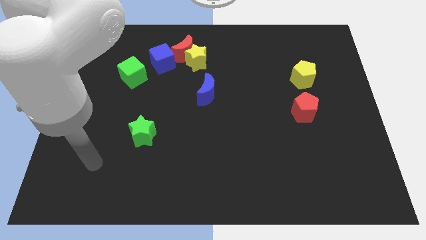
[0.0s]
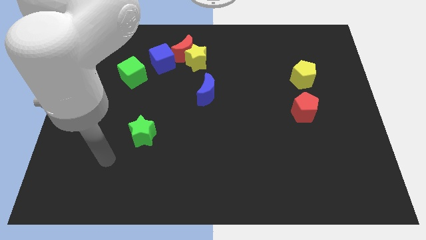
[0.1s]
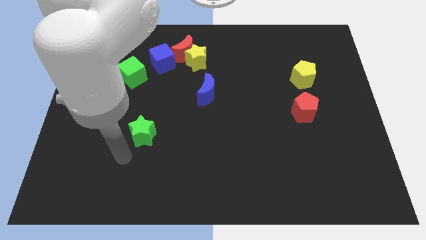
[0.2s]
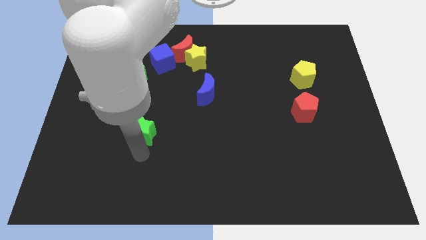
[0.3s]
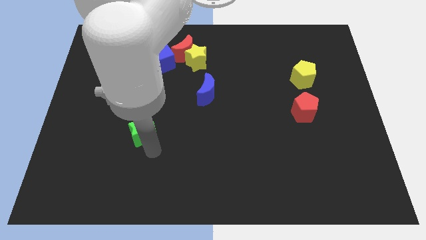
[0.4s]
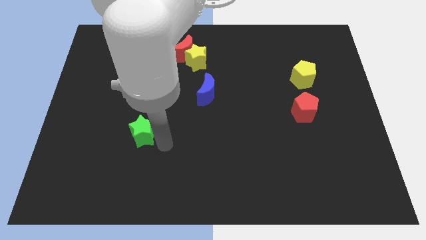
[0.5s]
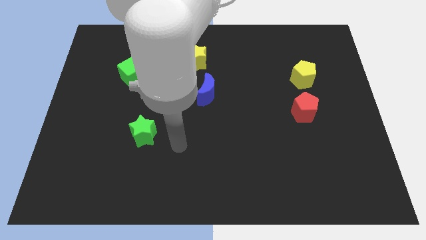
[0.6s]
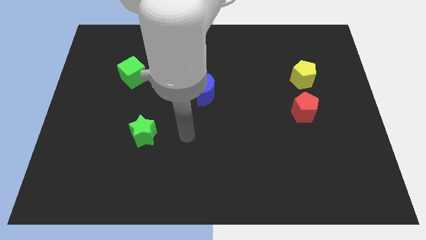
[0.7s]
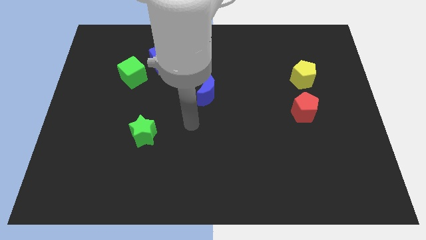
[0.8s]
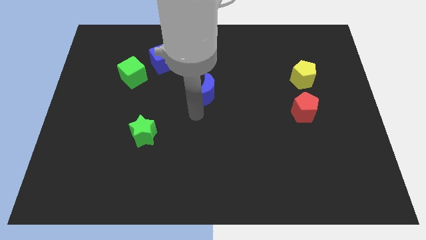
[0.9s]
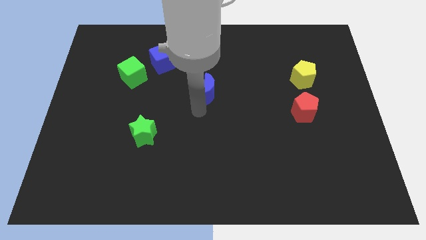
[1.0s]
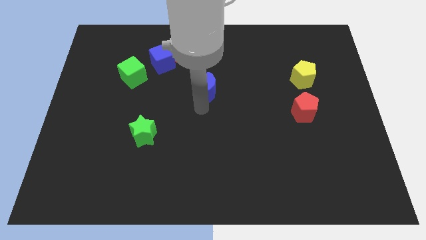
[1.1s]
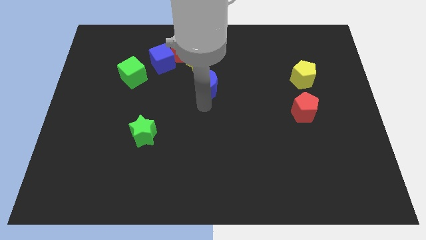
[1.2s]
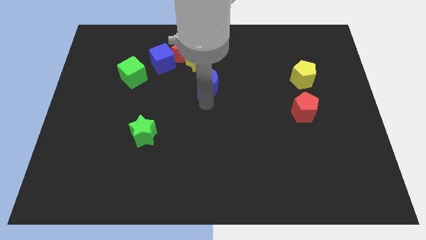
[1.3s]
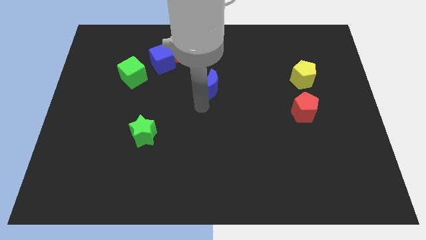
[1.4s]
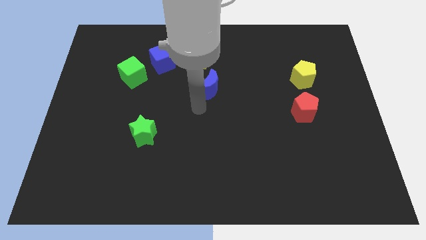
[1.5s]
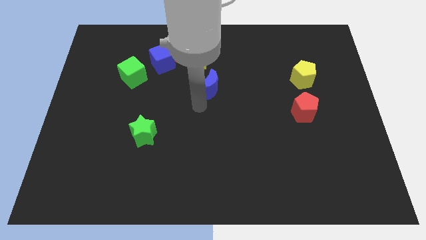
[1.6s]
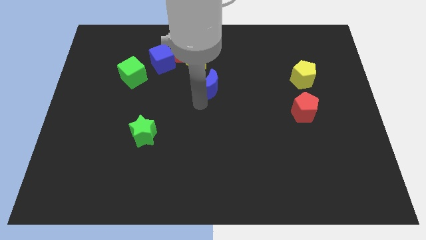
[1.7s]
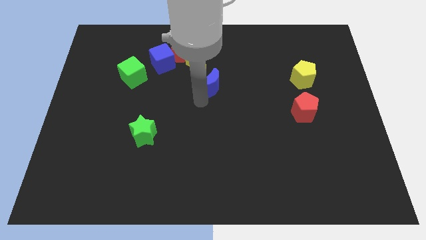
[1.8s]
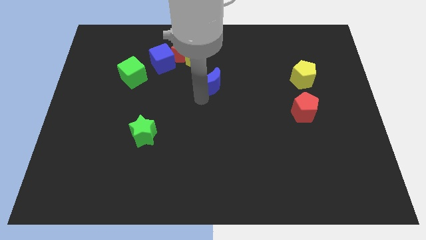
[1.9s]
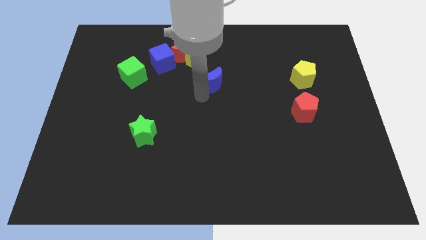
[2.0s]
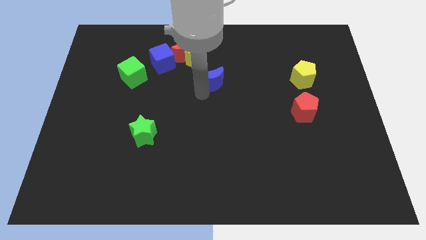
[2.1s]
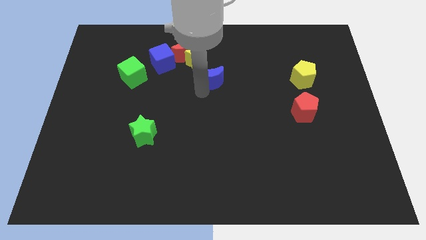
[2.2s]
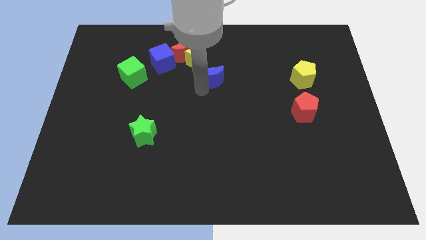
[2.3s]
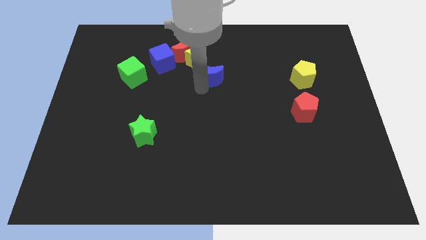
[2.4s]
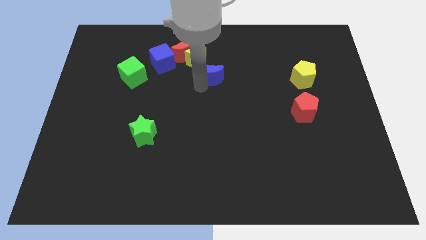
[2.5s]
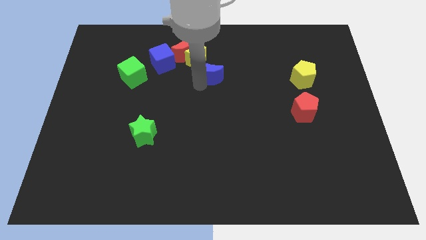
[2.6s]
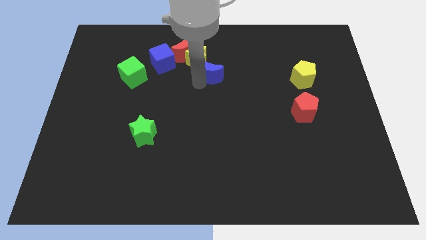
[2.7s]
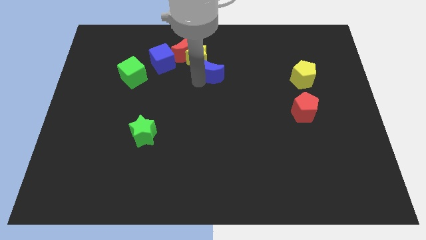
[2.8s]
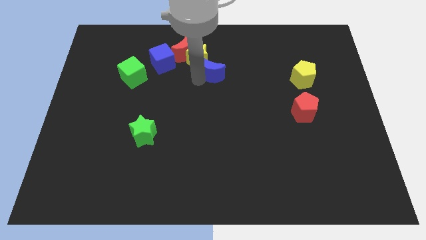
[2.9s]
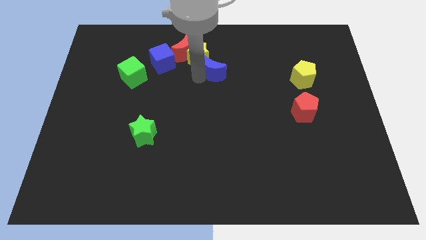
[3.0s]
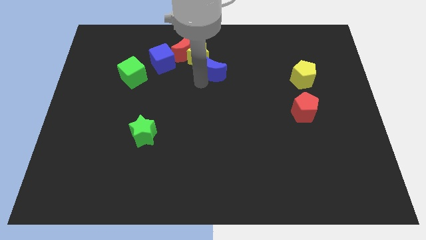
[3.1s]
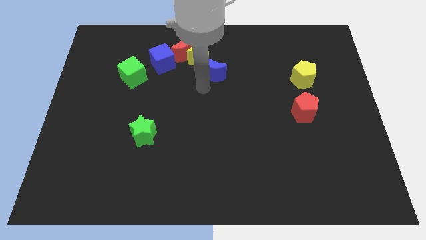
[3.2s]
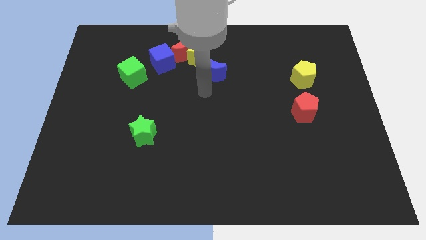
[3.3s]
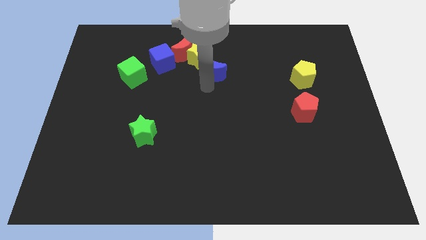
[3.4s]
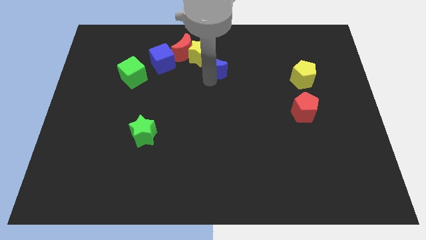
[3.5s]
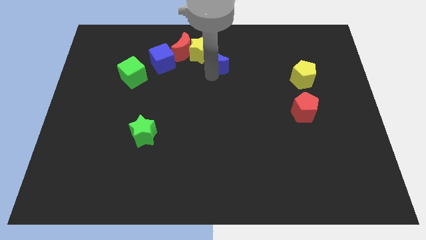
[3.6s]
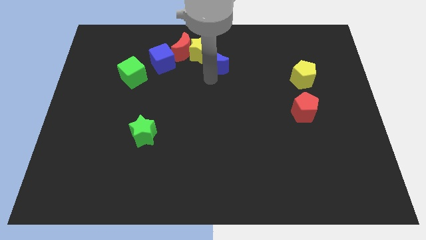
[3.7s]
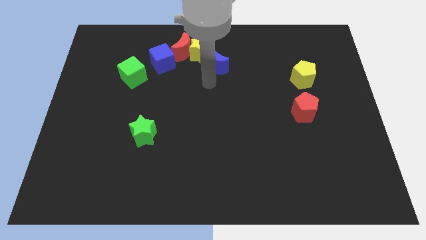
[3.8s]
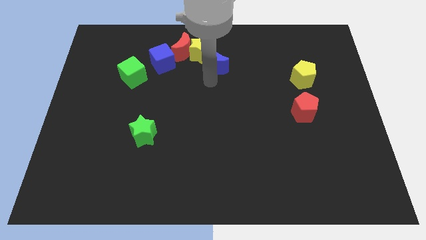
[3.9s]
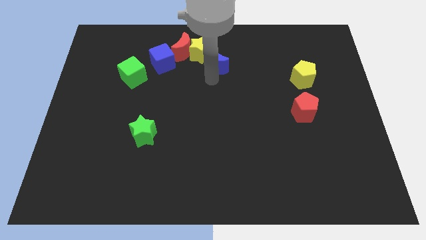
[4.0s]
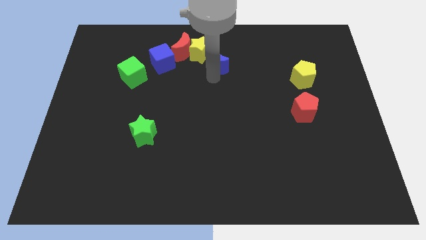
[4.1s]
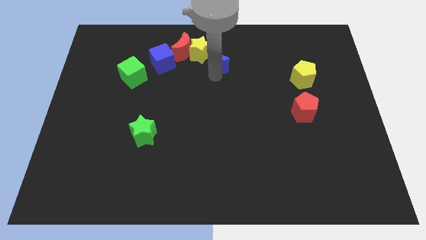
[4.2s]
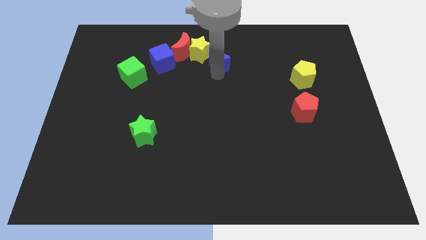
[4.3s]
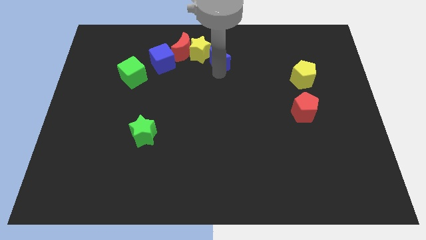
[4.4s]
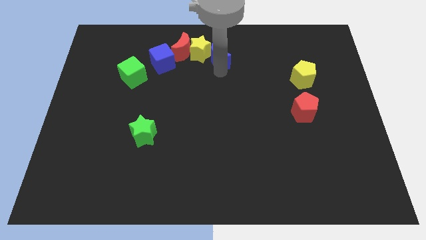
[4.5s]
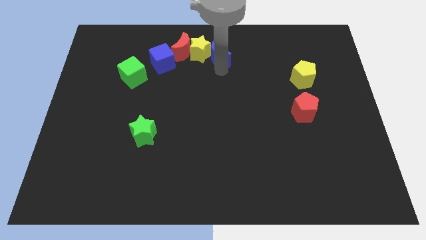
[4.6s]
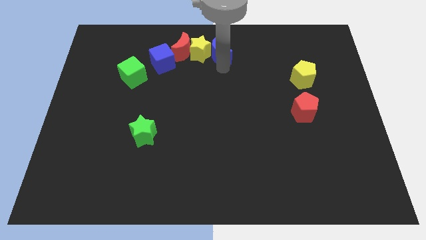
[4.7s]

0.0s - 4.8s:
put the blue moon to the top side

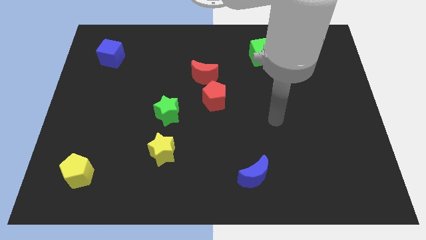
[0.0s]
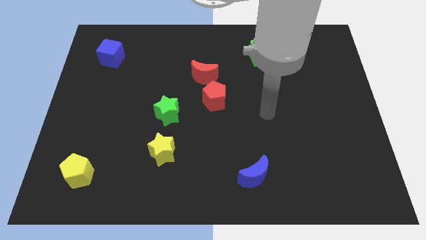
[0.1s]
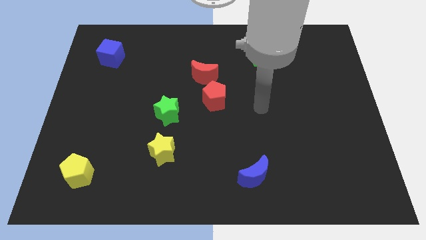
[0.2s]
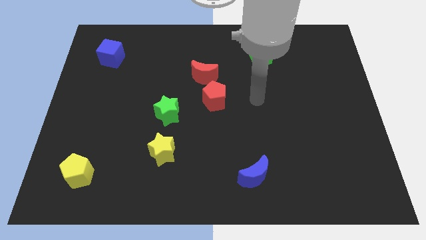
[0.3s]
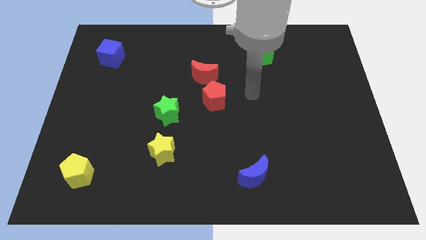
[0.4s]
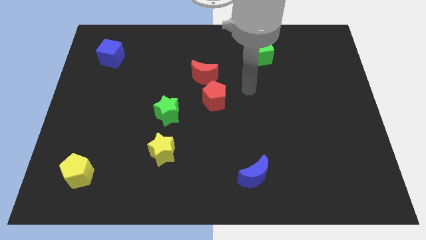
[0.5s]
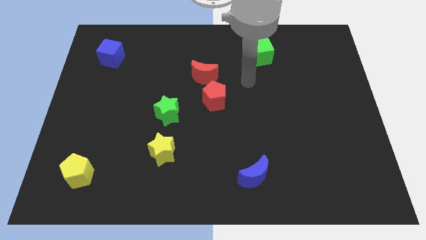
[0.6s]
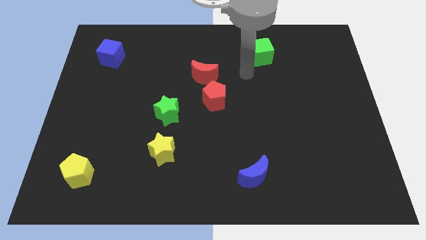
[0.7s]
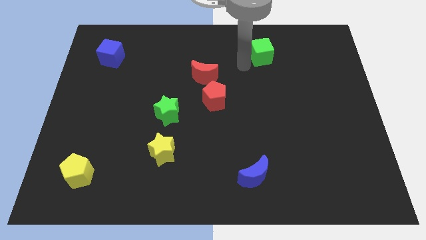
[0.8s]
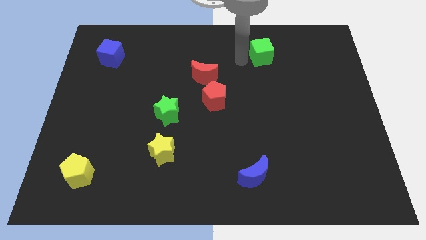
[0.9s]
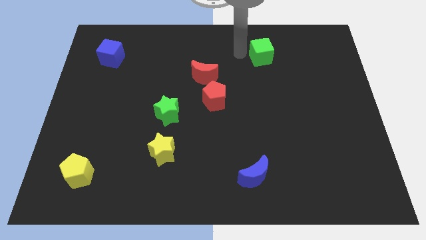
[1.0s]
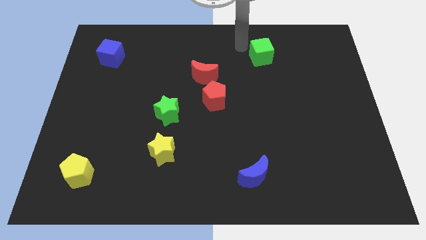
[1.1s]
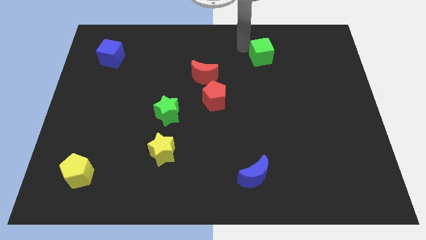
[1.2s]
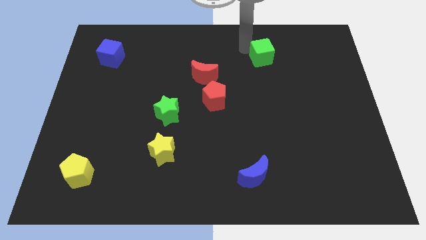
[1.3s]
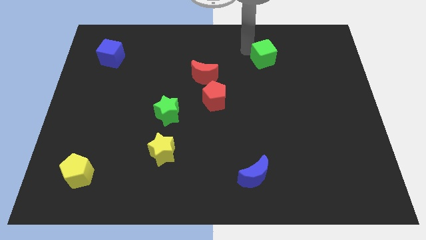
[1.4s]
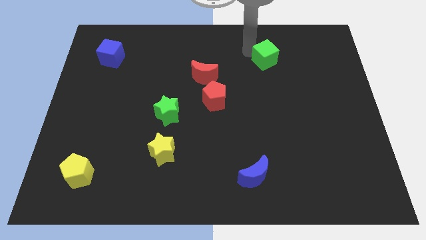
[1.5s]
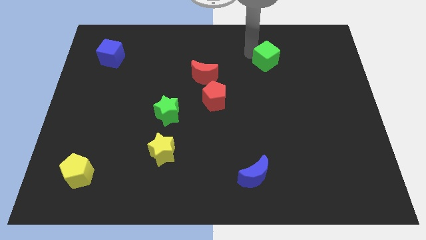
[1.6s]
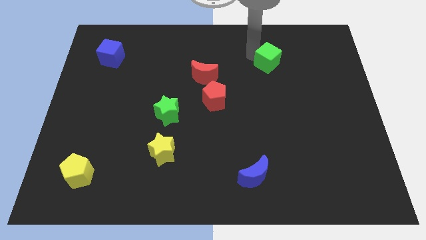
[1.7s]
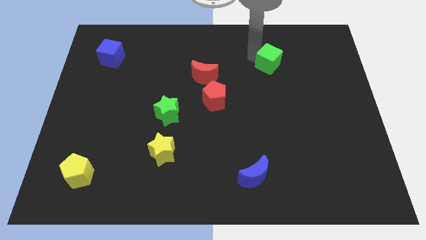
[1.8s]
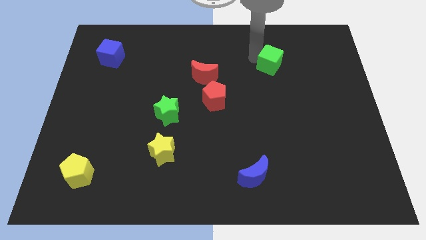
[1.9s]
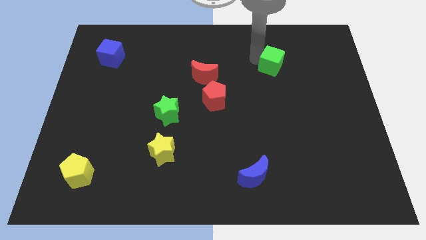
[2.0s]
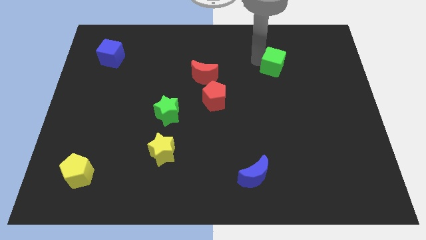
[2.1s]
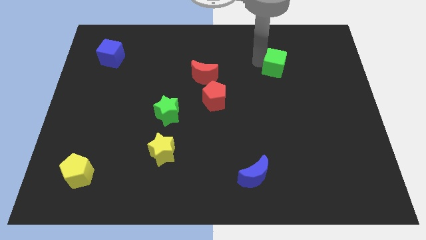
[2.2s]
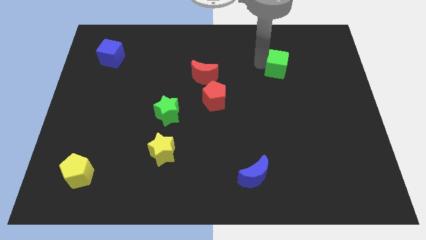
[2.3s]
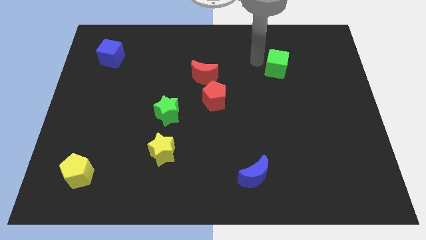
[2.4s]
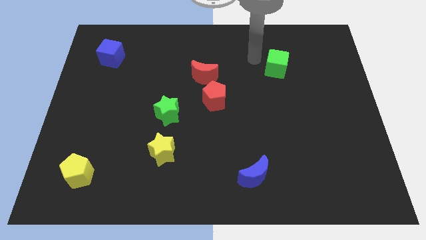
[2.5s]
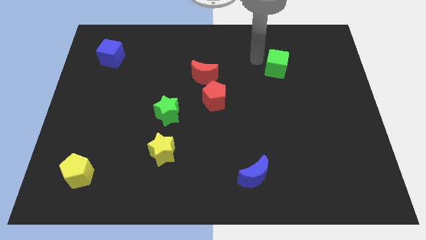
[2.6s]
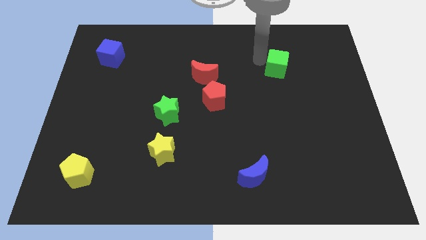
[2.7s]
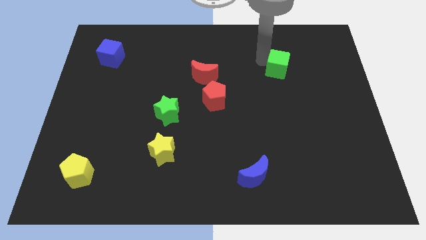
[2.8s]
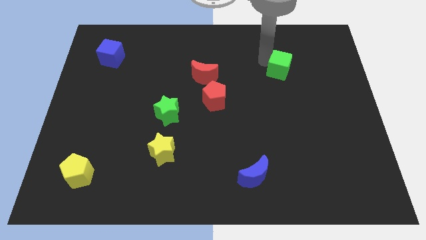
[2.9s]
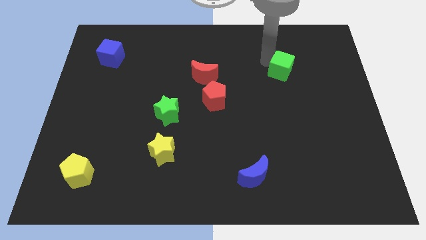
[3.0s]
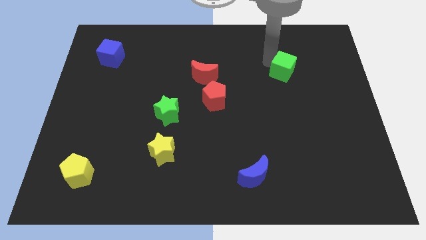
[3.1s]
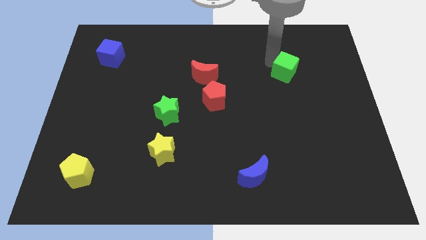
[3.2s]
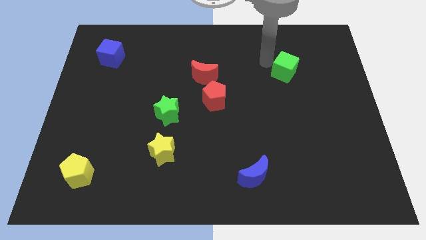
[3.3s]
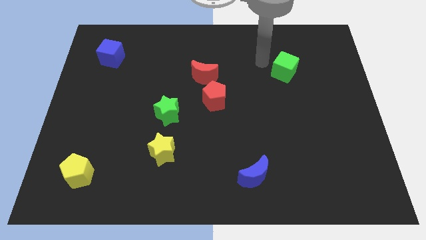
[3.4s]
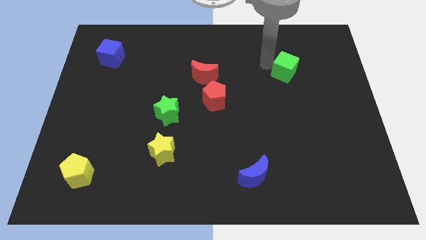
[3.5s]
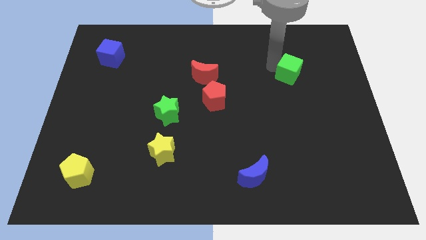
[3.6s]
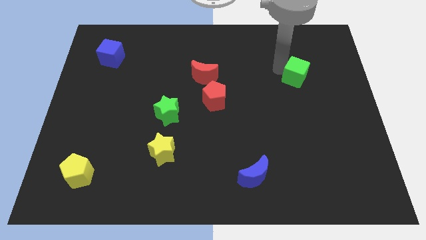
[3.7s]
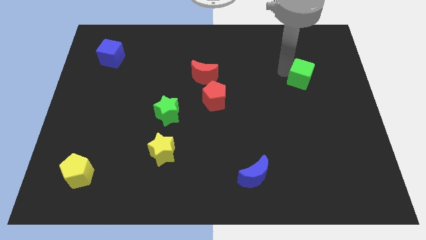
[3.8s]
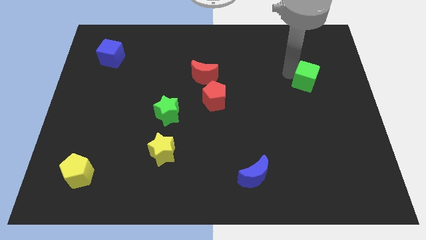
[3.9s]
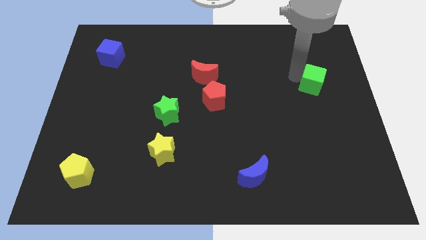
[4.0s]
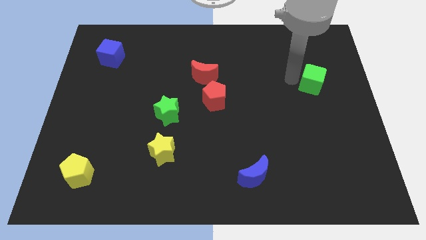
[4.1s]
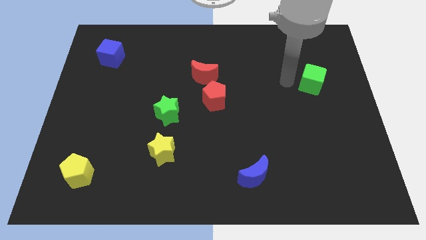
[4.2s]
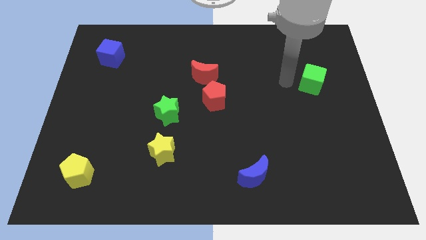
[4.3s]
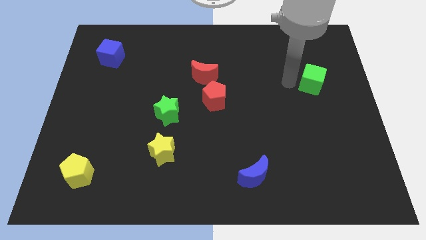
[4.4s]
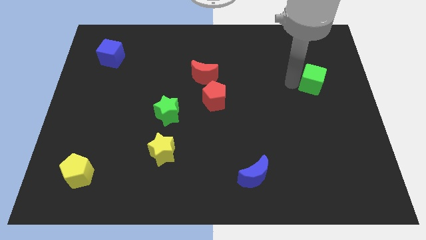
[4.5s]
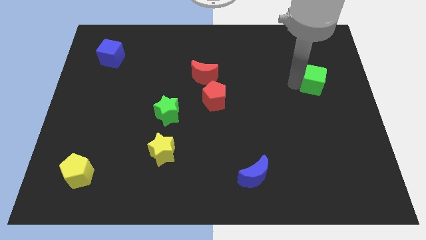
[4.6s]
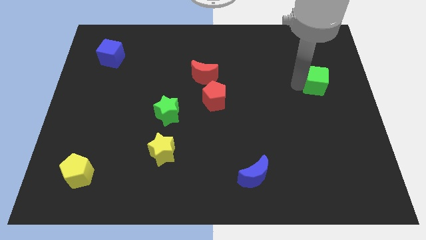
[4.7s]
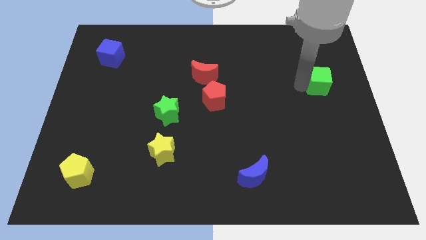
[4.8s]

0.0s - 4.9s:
push the green cube to the center right
